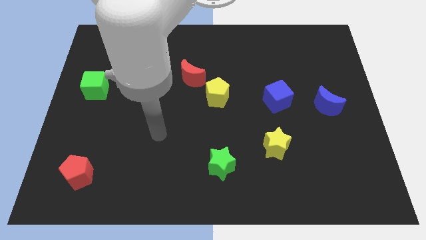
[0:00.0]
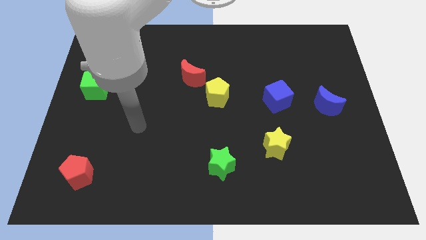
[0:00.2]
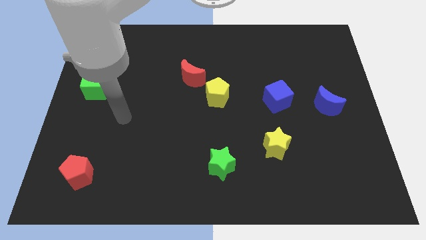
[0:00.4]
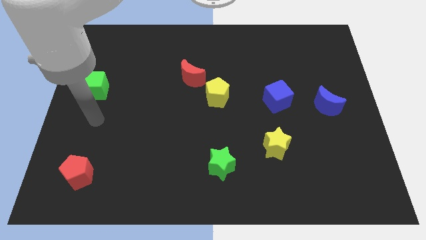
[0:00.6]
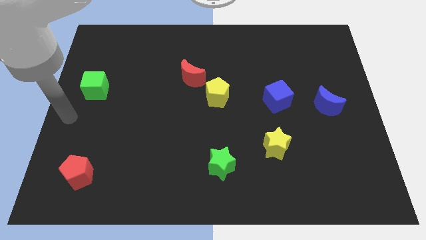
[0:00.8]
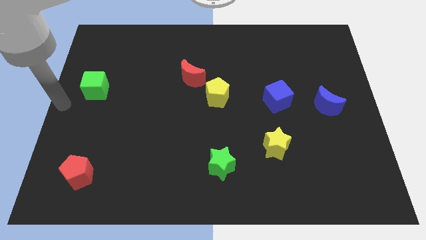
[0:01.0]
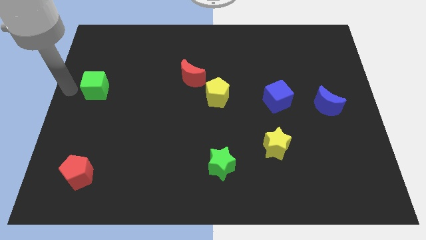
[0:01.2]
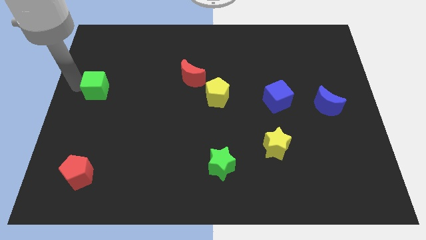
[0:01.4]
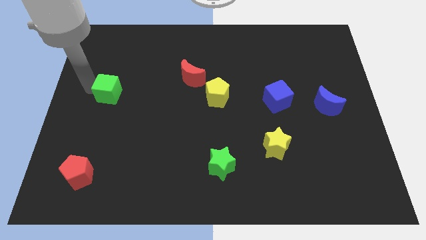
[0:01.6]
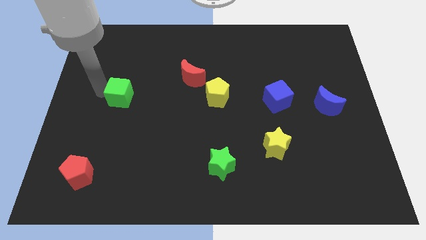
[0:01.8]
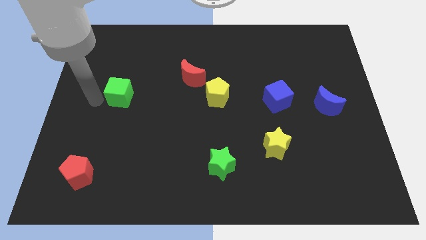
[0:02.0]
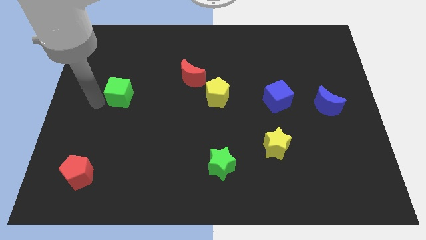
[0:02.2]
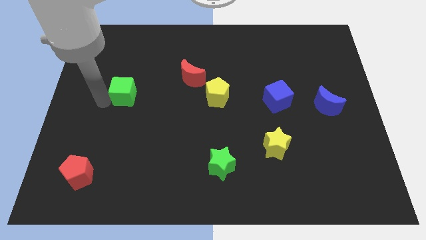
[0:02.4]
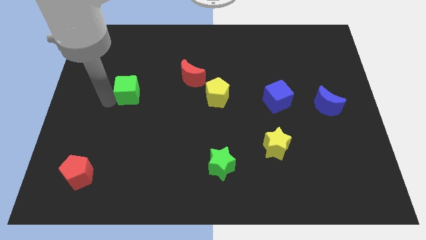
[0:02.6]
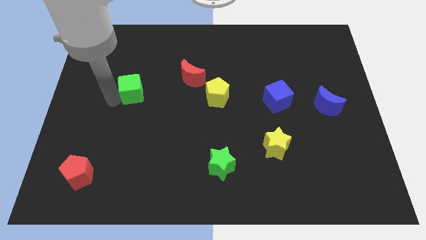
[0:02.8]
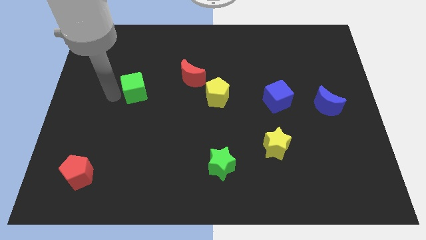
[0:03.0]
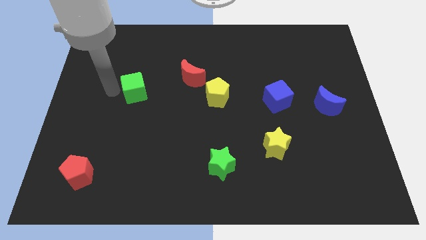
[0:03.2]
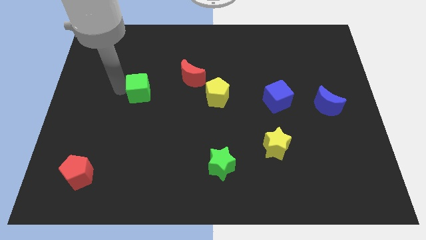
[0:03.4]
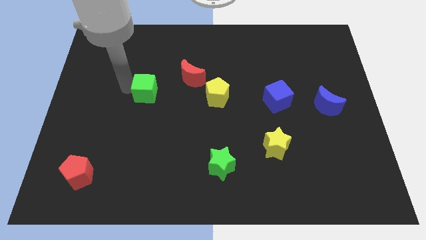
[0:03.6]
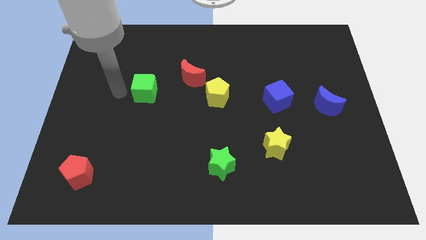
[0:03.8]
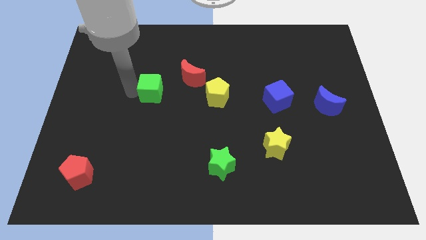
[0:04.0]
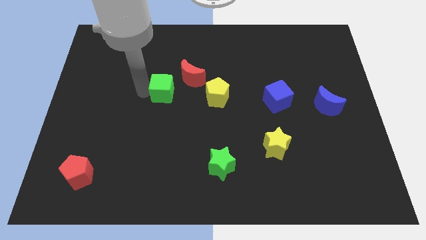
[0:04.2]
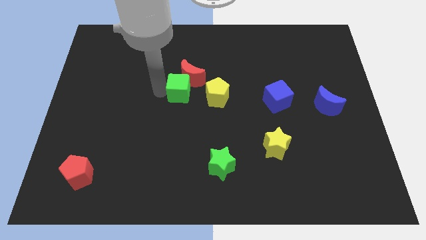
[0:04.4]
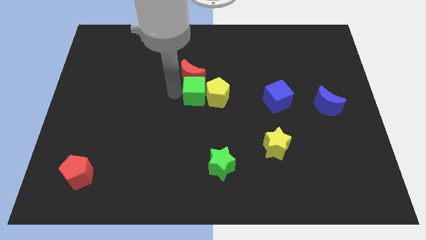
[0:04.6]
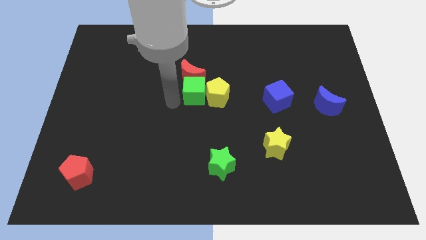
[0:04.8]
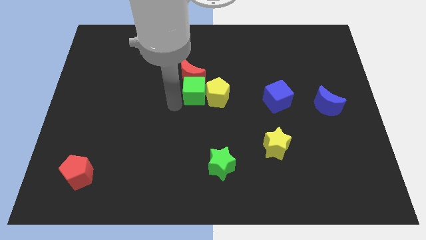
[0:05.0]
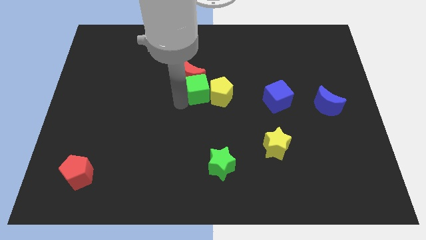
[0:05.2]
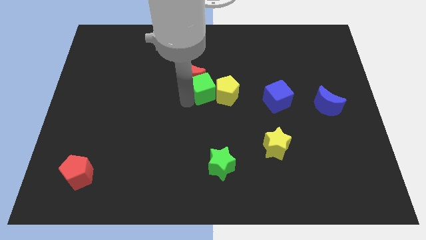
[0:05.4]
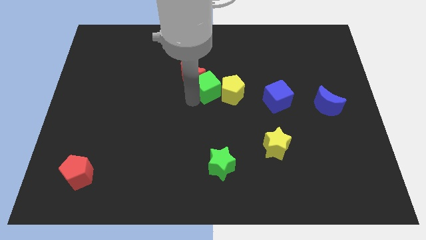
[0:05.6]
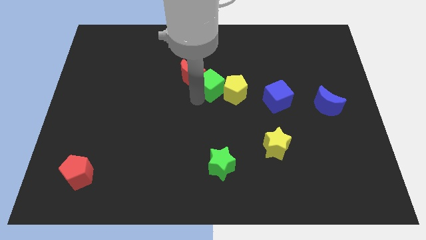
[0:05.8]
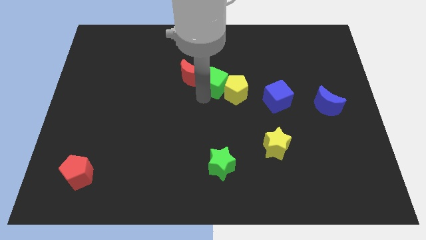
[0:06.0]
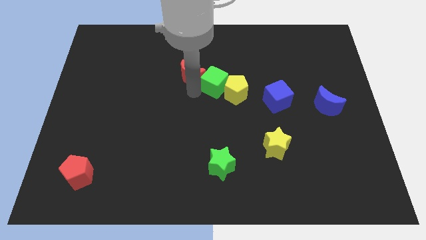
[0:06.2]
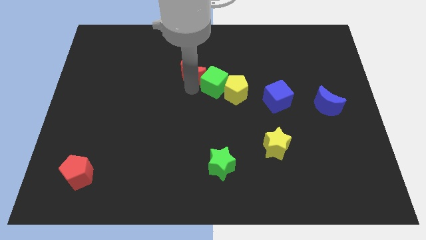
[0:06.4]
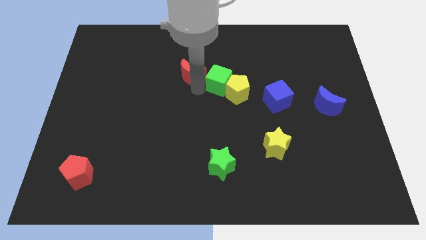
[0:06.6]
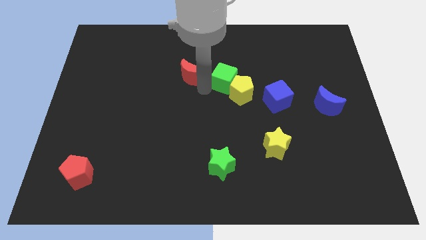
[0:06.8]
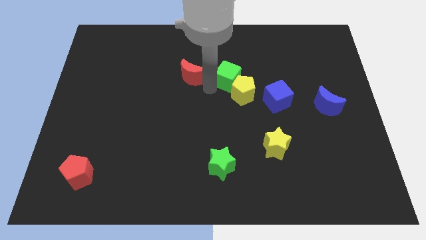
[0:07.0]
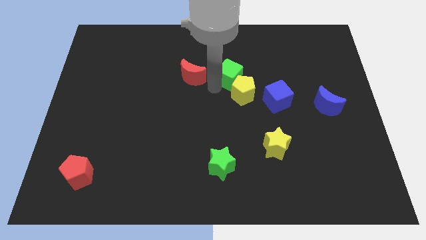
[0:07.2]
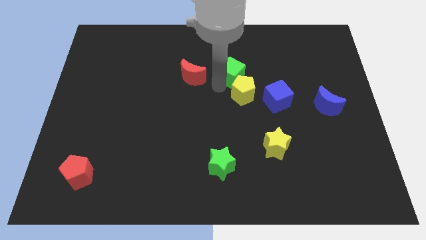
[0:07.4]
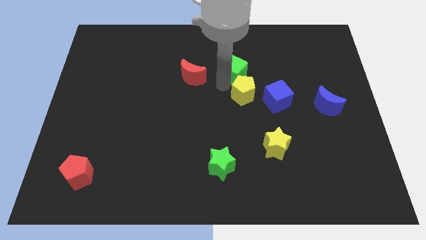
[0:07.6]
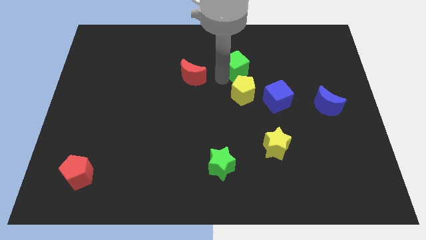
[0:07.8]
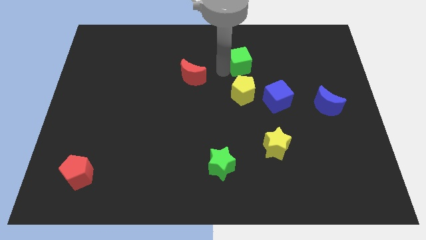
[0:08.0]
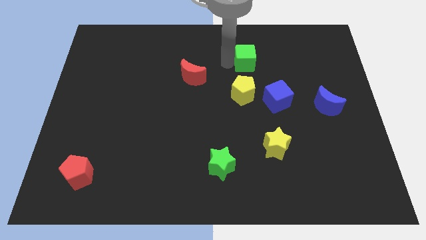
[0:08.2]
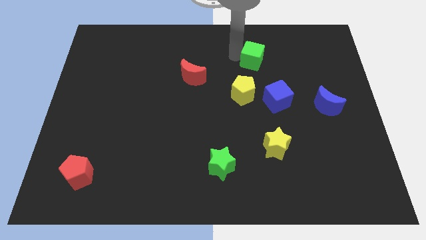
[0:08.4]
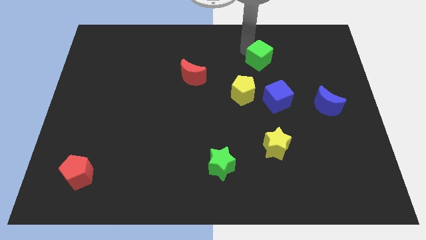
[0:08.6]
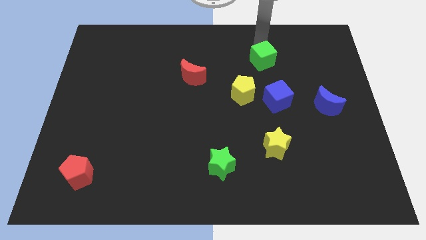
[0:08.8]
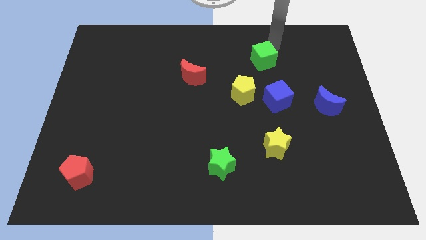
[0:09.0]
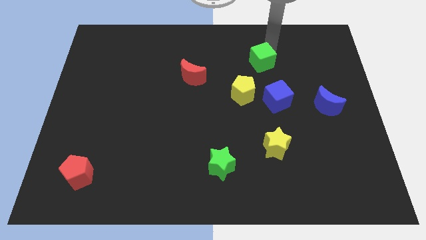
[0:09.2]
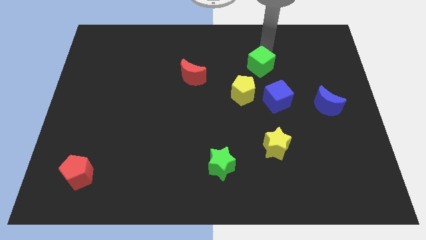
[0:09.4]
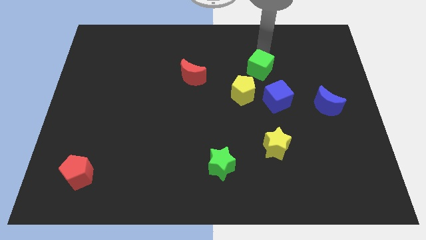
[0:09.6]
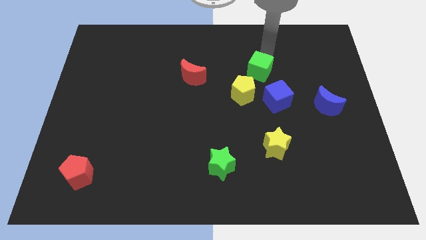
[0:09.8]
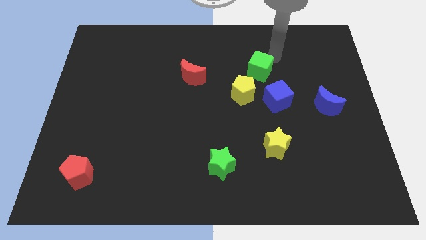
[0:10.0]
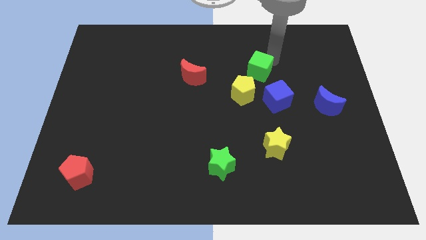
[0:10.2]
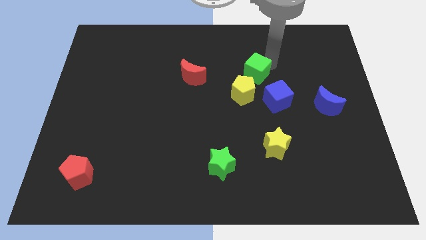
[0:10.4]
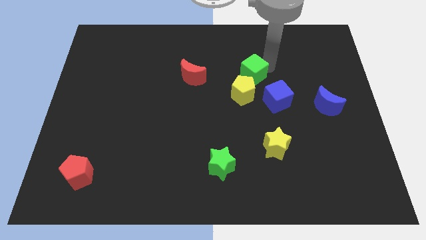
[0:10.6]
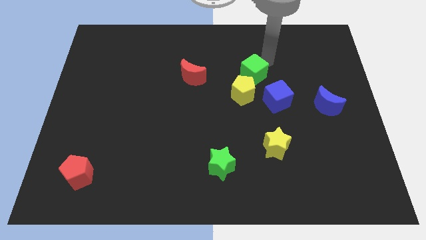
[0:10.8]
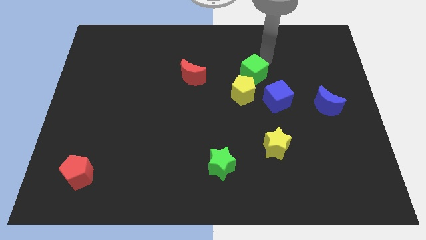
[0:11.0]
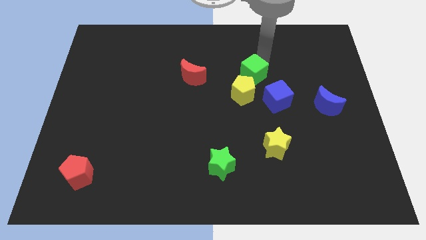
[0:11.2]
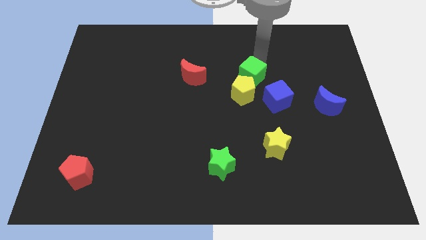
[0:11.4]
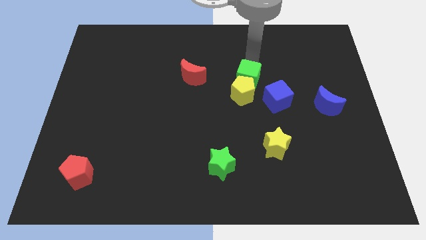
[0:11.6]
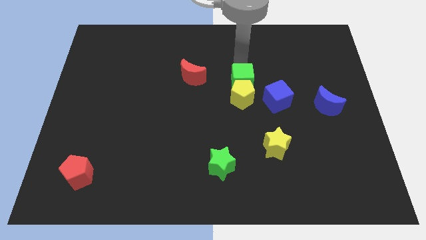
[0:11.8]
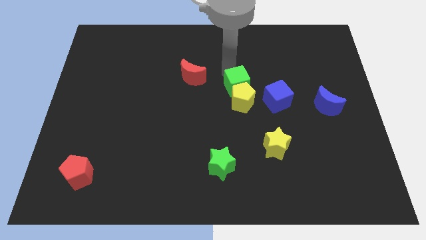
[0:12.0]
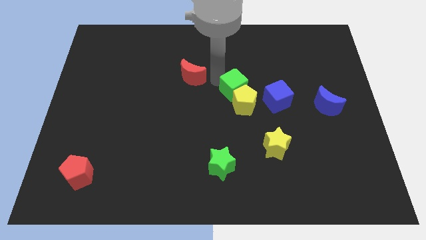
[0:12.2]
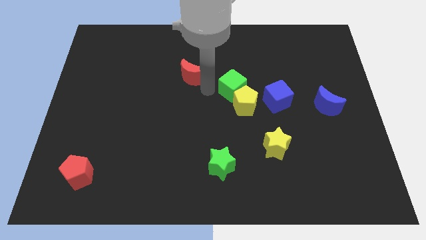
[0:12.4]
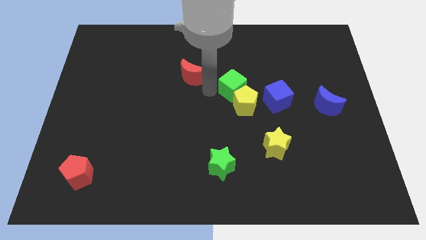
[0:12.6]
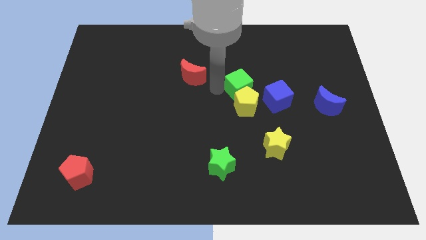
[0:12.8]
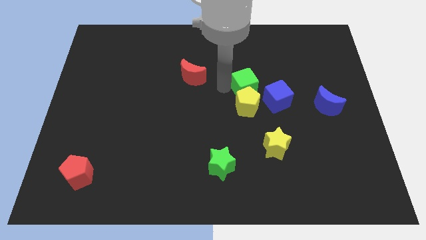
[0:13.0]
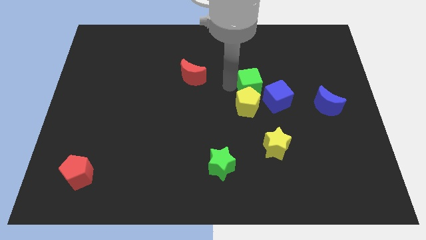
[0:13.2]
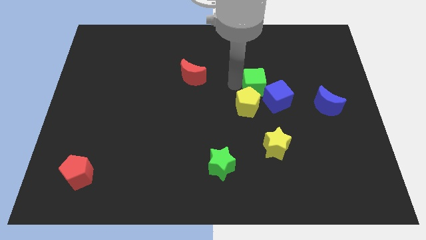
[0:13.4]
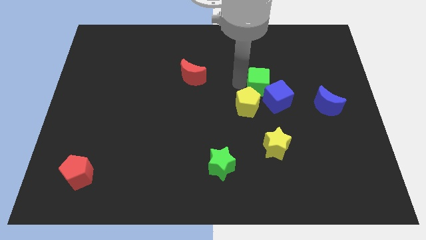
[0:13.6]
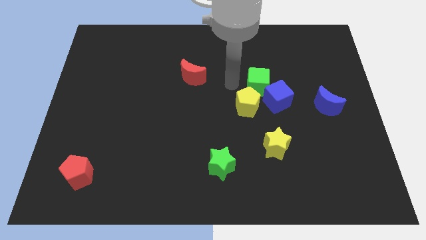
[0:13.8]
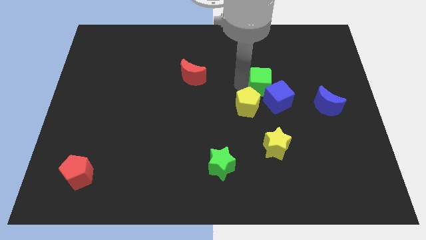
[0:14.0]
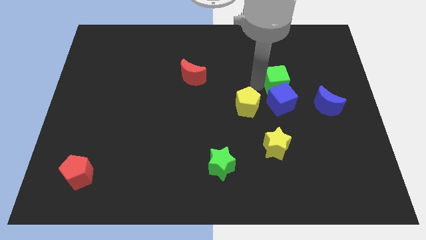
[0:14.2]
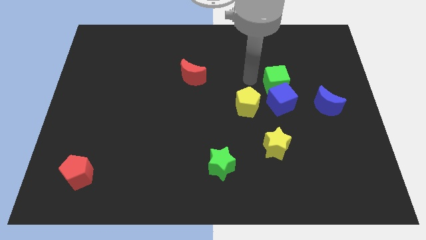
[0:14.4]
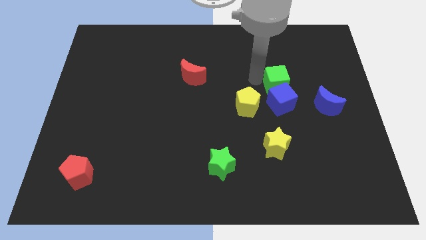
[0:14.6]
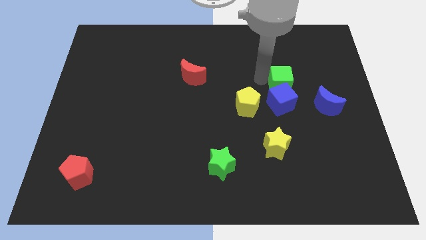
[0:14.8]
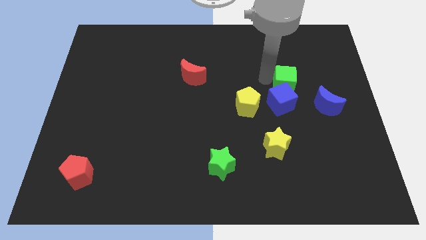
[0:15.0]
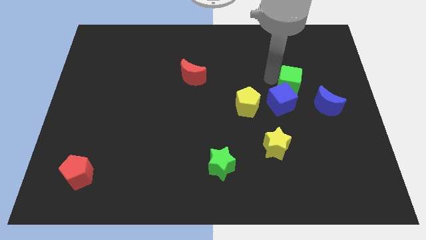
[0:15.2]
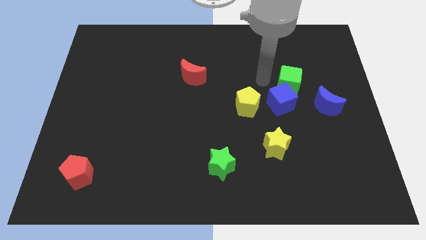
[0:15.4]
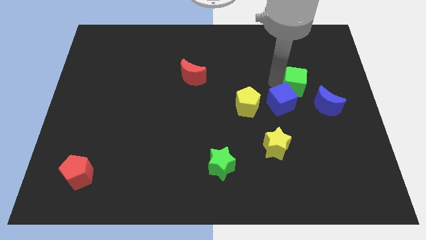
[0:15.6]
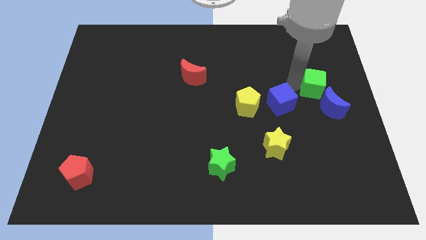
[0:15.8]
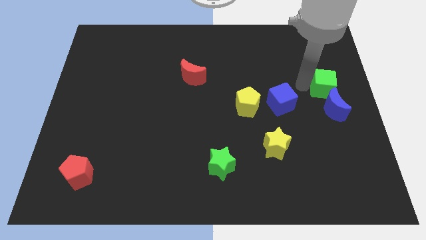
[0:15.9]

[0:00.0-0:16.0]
push the green cube to the center right
